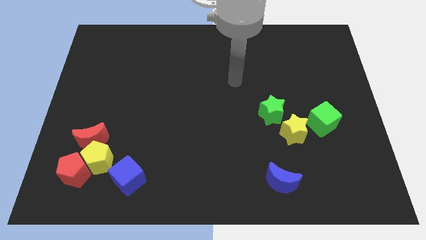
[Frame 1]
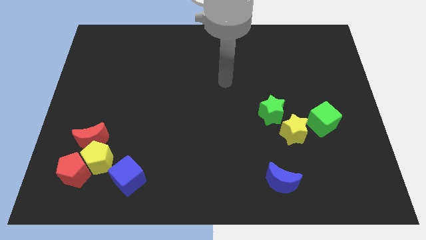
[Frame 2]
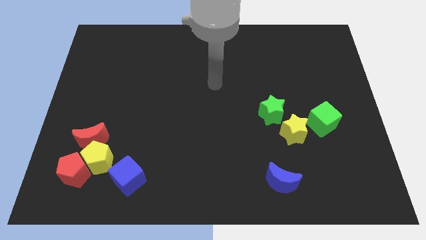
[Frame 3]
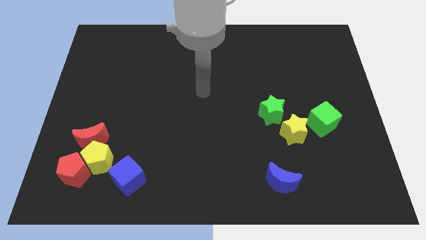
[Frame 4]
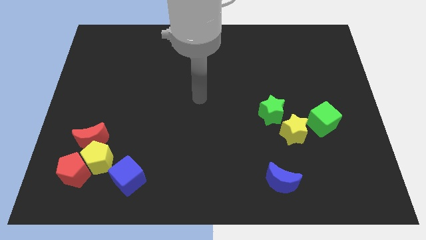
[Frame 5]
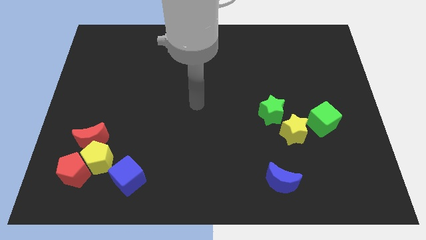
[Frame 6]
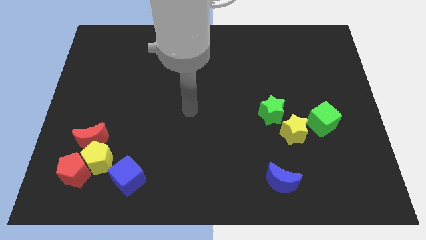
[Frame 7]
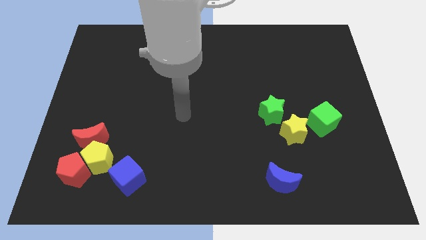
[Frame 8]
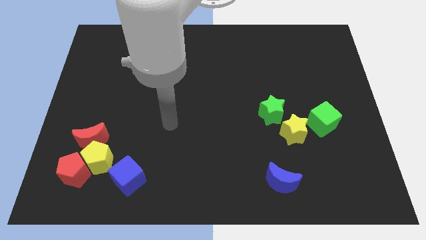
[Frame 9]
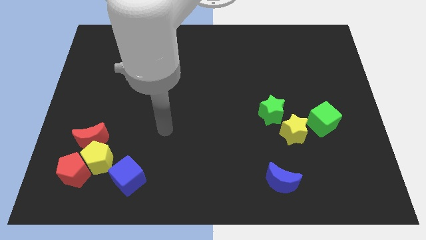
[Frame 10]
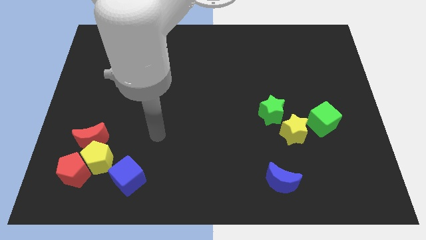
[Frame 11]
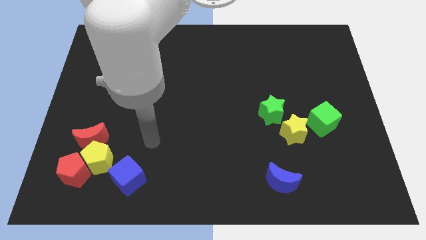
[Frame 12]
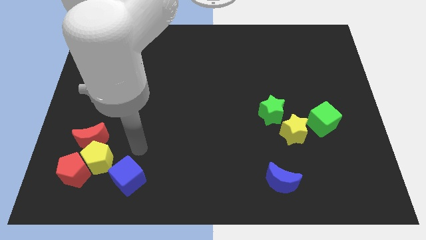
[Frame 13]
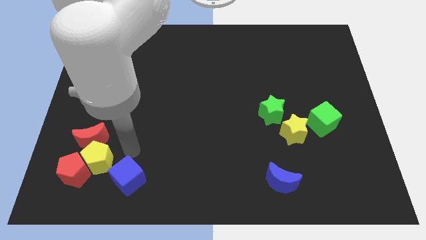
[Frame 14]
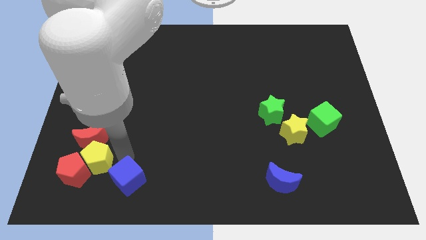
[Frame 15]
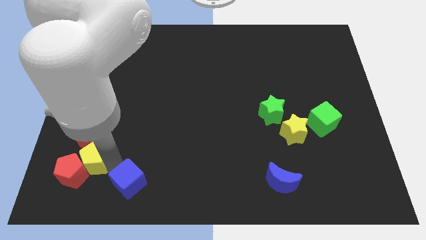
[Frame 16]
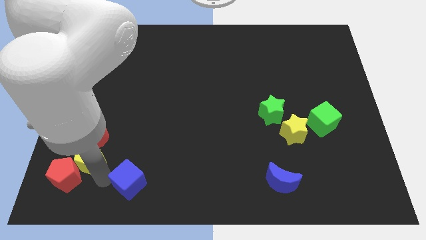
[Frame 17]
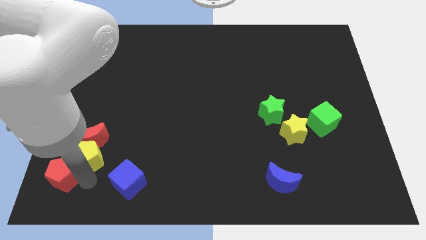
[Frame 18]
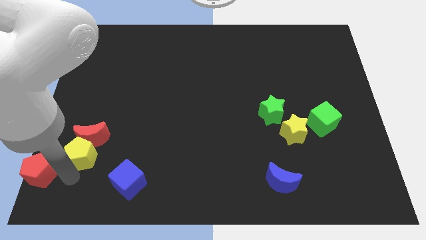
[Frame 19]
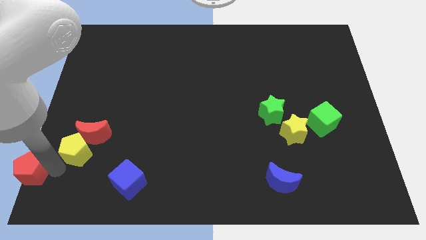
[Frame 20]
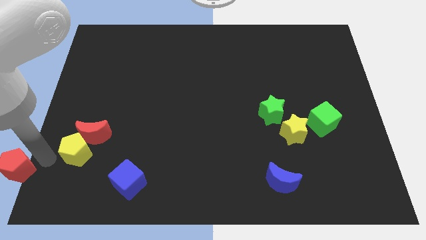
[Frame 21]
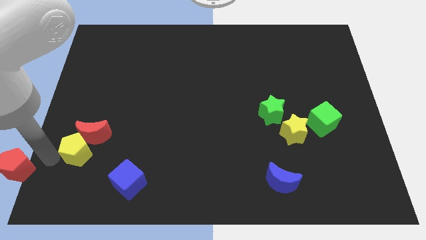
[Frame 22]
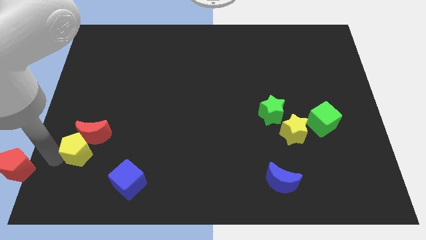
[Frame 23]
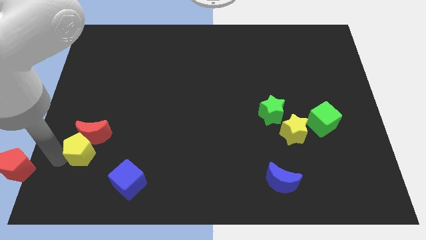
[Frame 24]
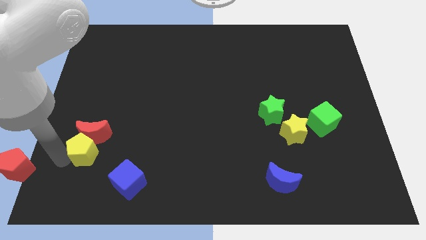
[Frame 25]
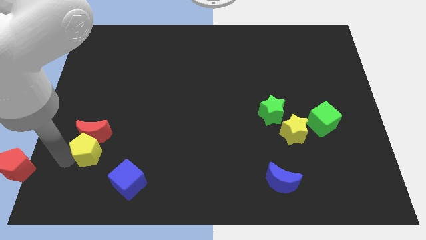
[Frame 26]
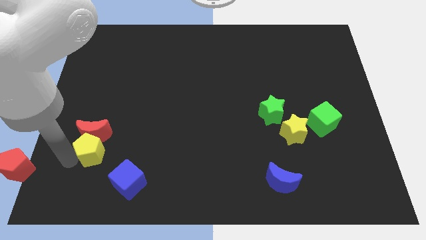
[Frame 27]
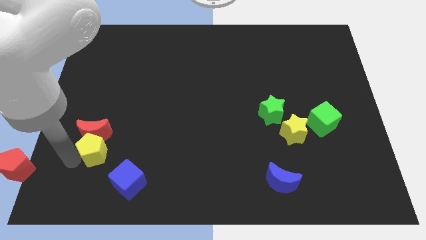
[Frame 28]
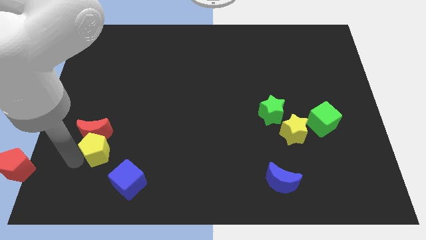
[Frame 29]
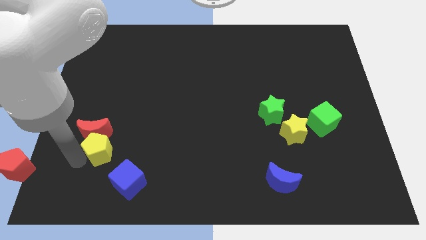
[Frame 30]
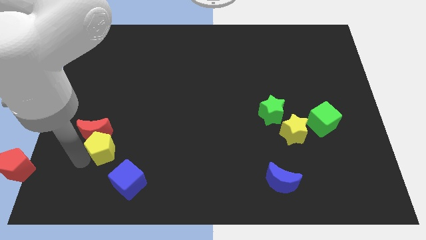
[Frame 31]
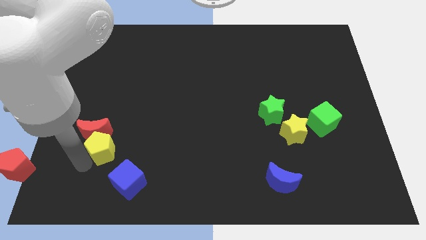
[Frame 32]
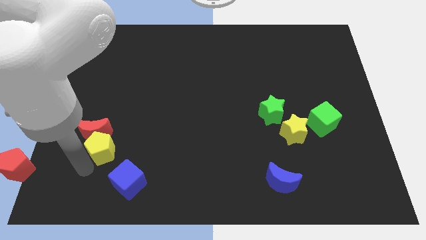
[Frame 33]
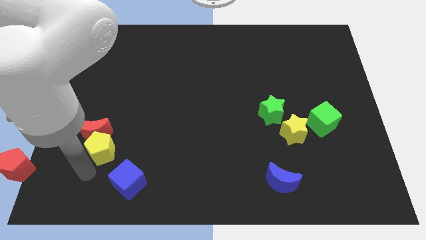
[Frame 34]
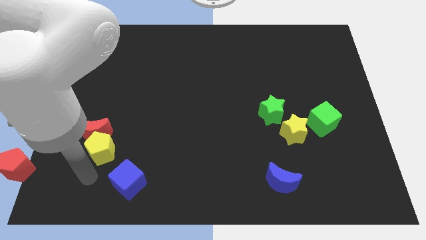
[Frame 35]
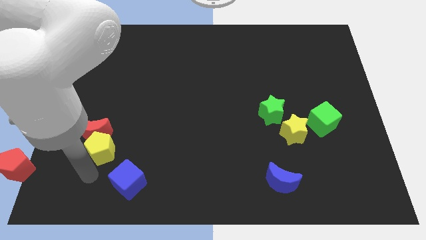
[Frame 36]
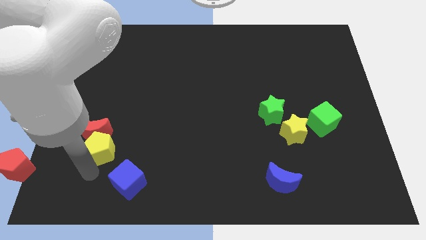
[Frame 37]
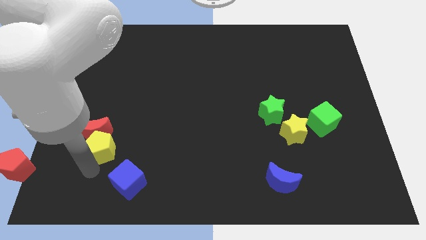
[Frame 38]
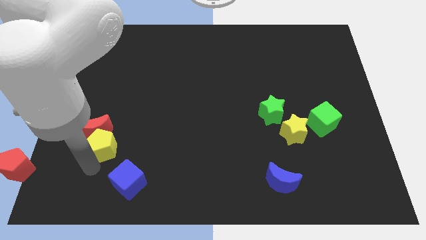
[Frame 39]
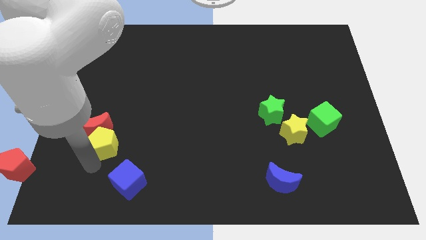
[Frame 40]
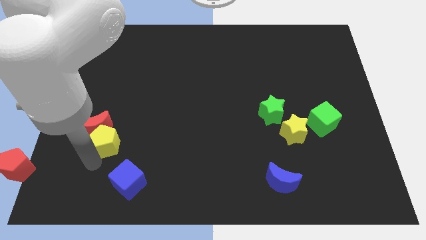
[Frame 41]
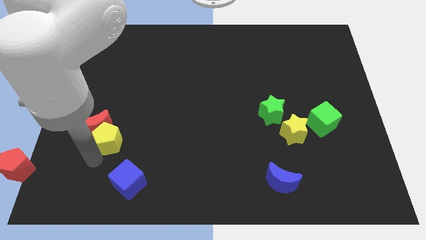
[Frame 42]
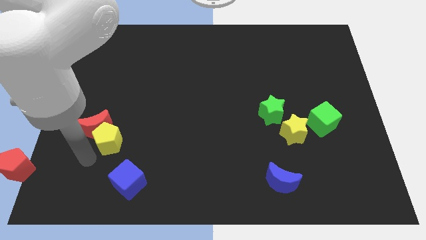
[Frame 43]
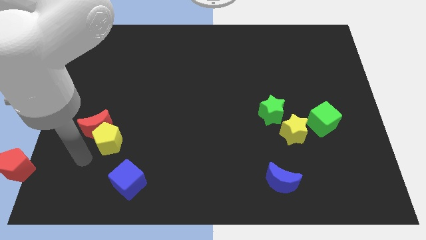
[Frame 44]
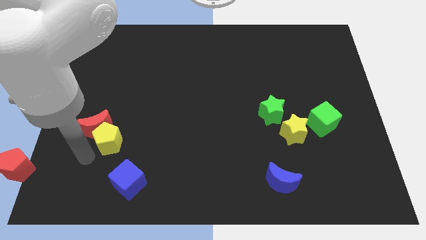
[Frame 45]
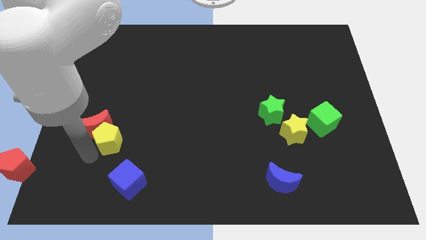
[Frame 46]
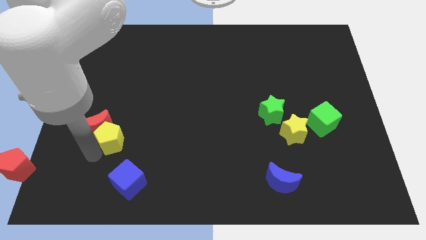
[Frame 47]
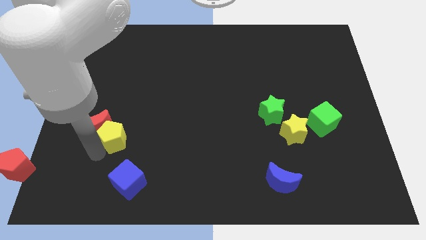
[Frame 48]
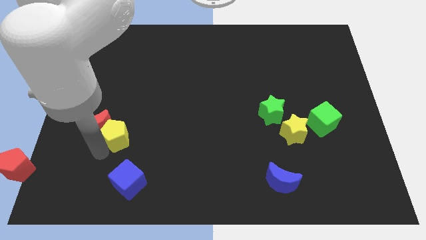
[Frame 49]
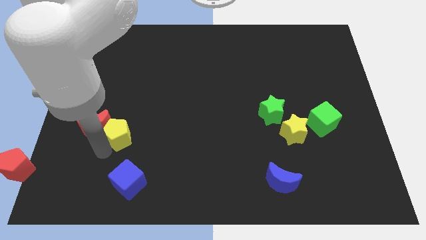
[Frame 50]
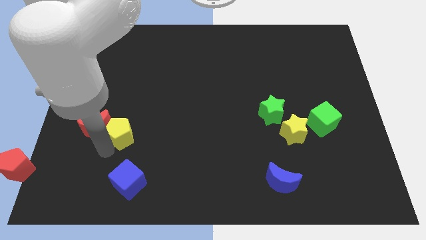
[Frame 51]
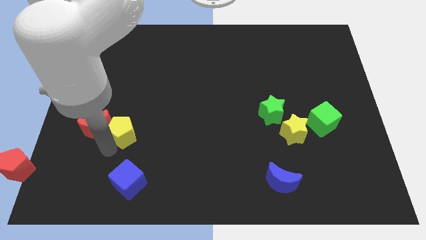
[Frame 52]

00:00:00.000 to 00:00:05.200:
pull the yellow pentagon apart from the red moon, red pentagon, and blue cube

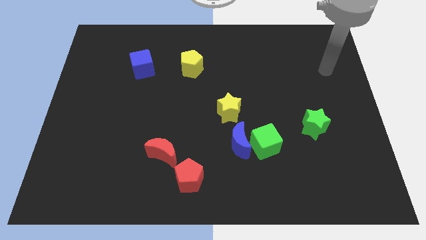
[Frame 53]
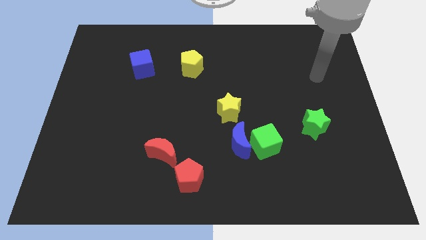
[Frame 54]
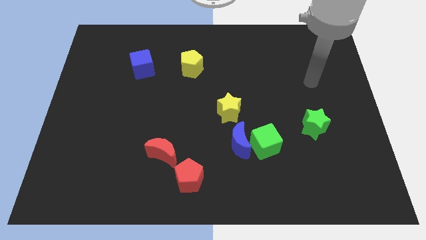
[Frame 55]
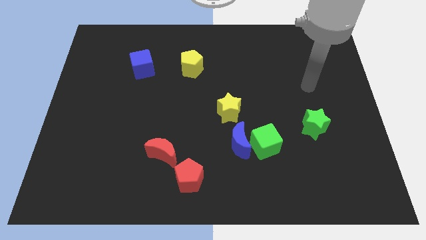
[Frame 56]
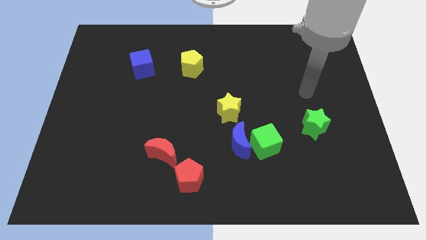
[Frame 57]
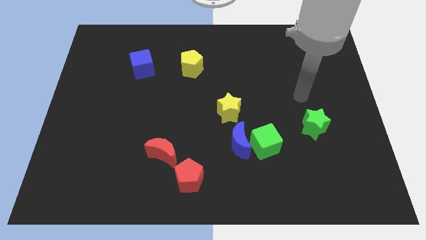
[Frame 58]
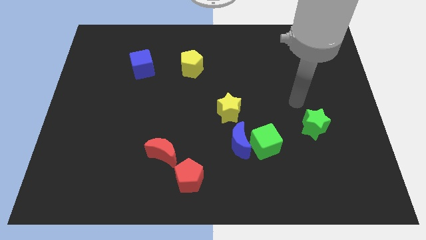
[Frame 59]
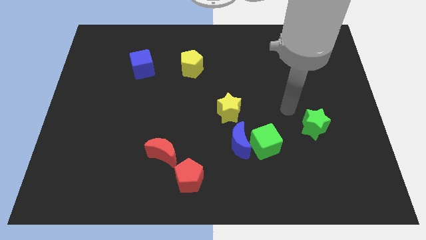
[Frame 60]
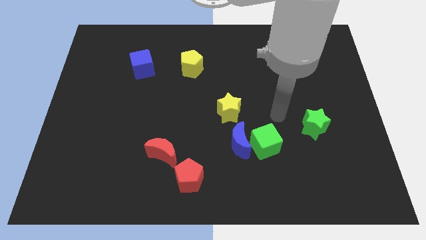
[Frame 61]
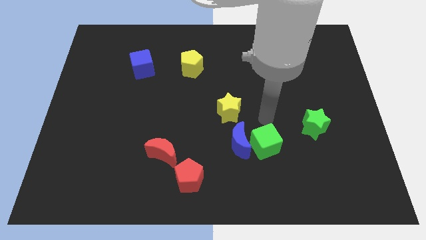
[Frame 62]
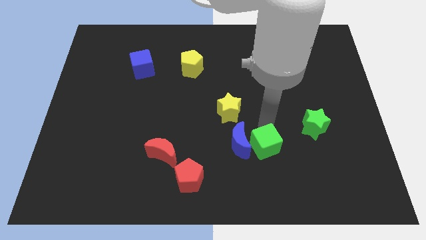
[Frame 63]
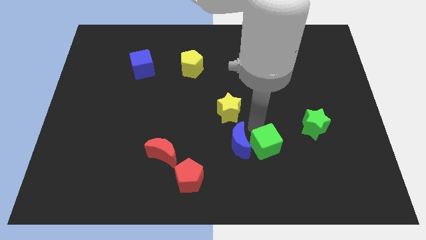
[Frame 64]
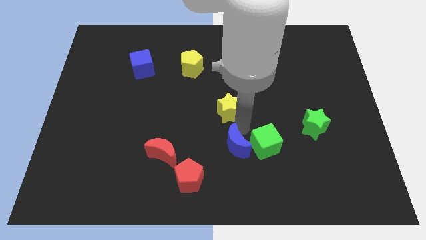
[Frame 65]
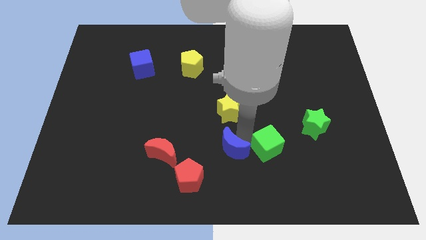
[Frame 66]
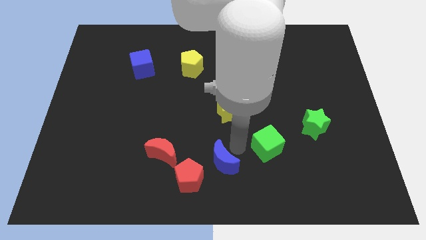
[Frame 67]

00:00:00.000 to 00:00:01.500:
pull the green cube apart from the blue moon

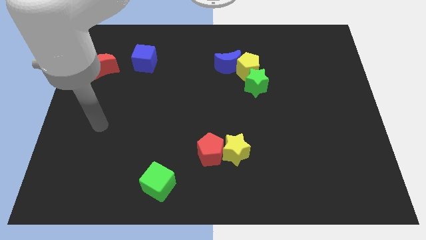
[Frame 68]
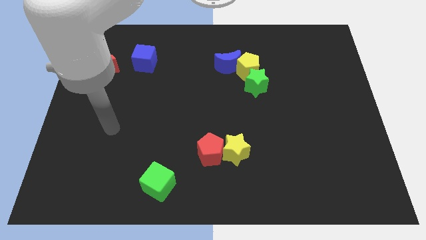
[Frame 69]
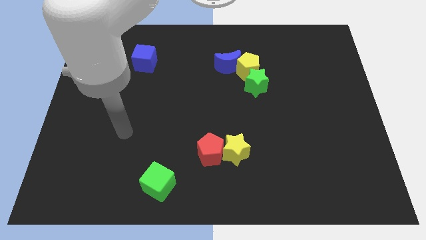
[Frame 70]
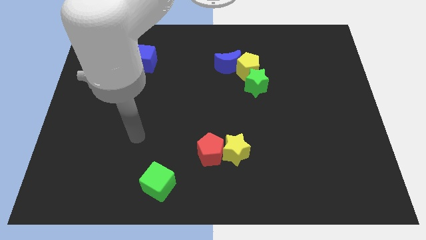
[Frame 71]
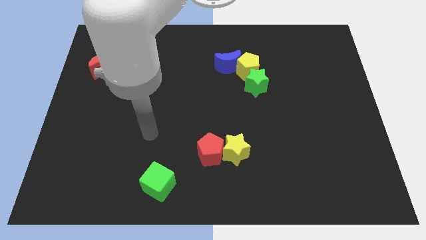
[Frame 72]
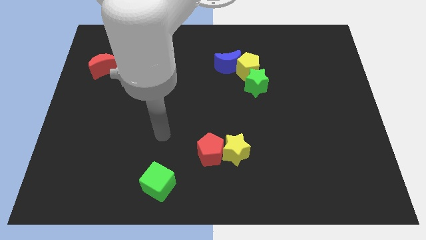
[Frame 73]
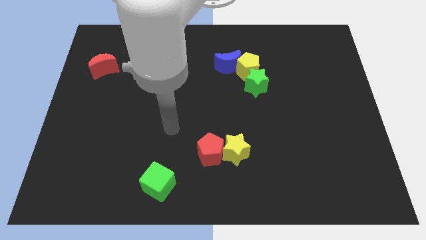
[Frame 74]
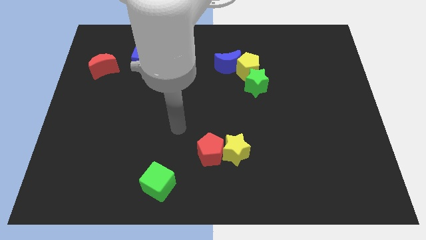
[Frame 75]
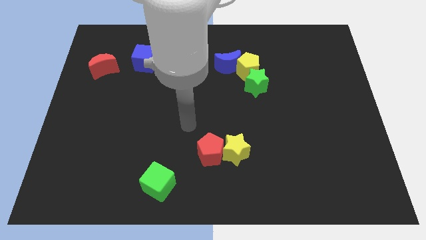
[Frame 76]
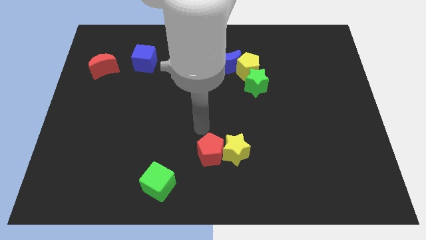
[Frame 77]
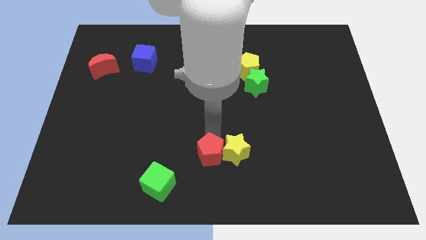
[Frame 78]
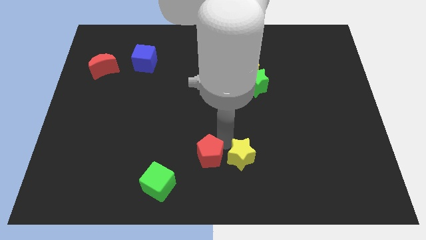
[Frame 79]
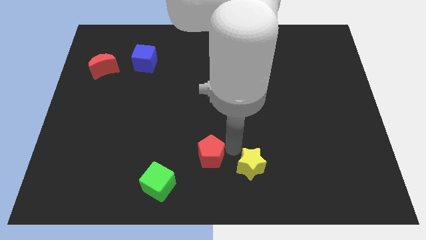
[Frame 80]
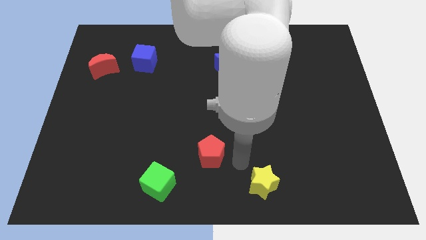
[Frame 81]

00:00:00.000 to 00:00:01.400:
separate the red pentagon from the yellow star

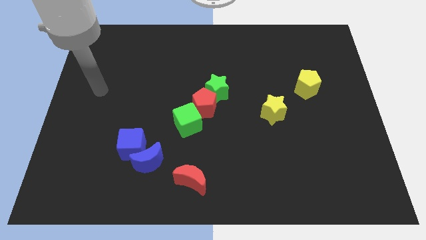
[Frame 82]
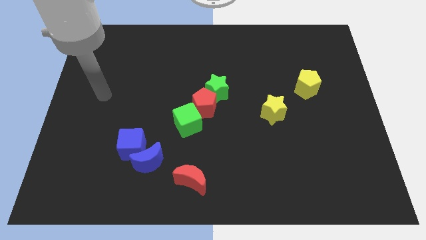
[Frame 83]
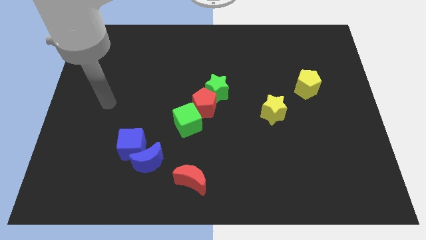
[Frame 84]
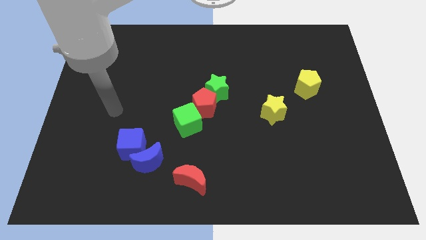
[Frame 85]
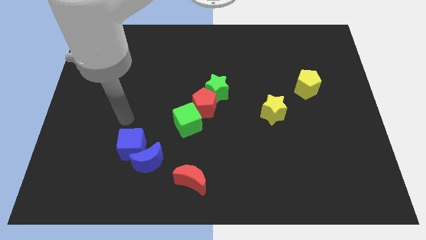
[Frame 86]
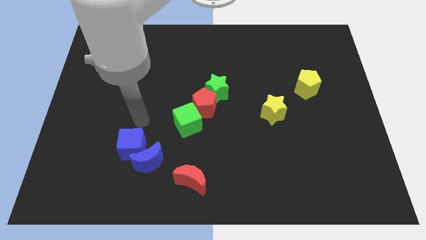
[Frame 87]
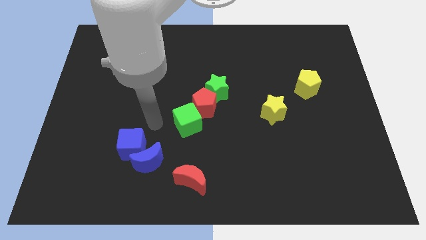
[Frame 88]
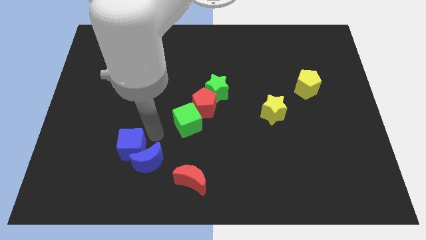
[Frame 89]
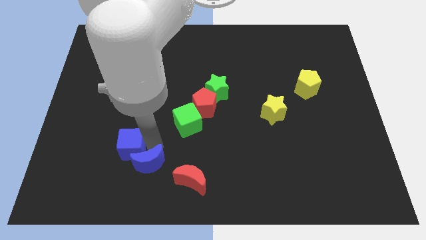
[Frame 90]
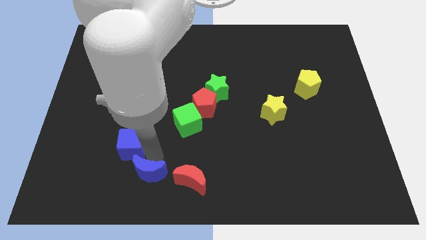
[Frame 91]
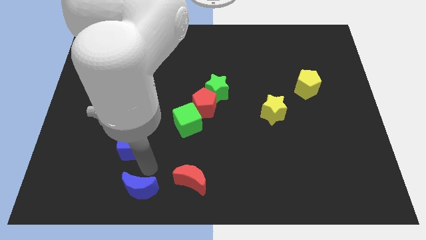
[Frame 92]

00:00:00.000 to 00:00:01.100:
move the blue cube away from the blue moon
